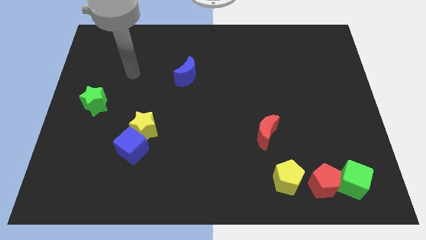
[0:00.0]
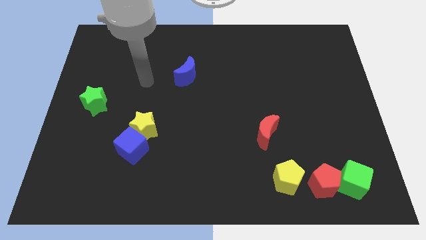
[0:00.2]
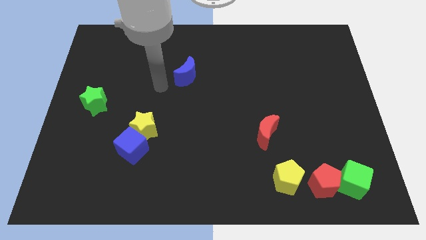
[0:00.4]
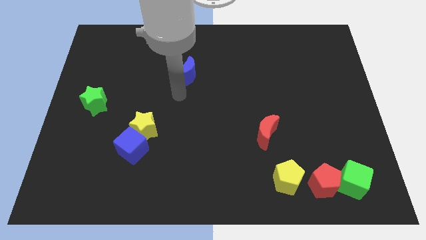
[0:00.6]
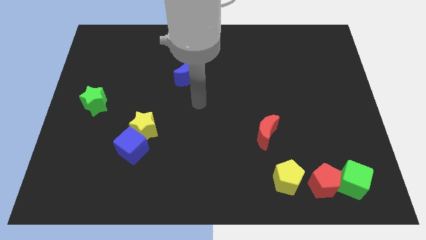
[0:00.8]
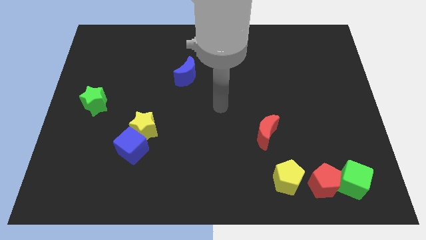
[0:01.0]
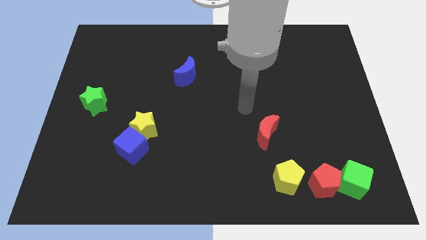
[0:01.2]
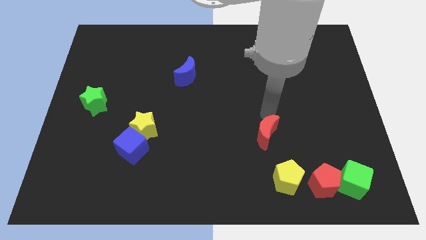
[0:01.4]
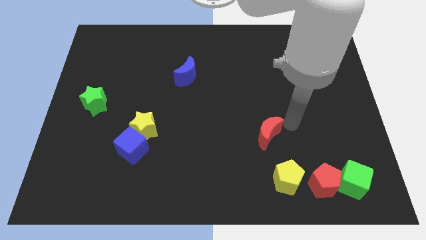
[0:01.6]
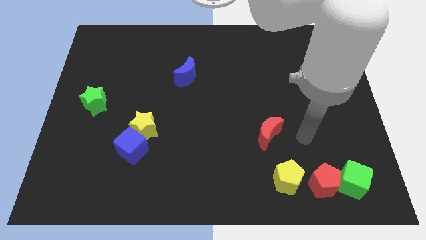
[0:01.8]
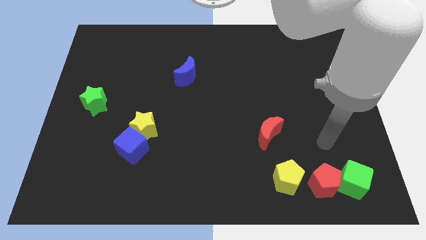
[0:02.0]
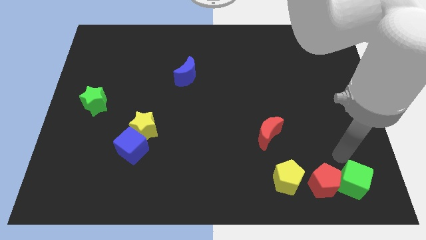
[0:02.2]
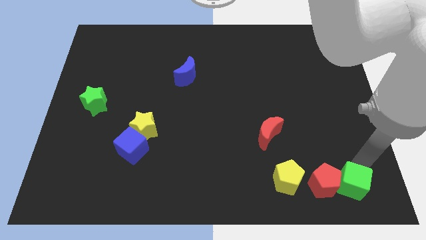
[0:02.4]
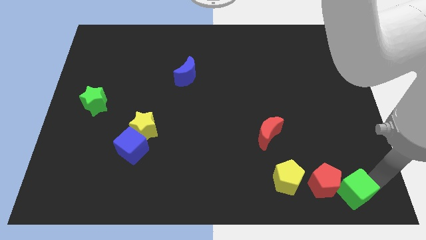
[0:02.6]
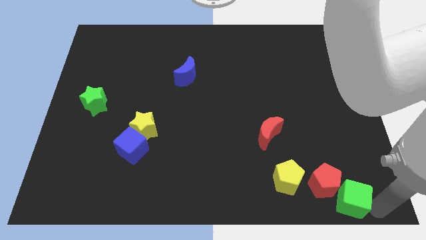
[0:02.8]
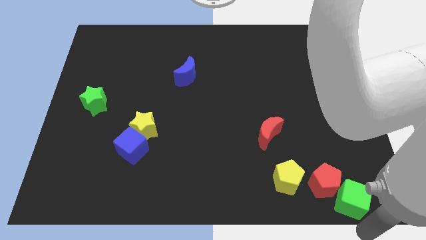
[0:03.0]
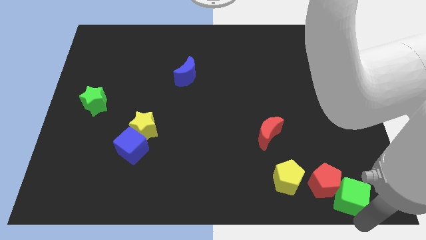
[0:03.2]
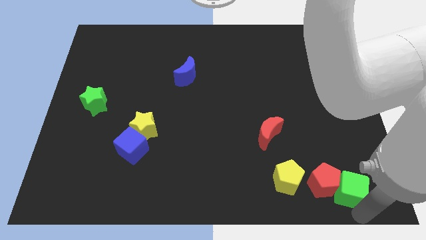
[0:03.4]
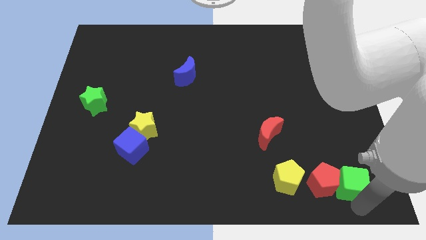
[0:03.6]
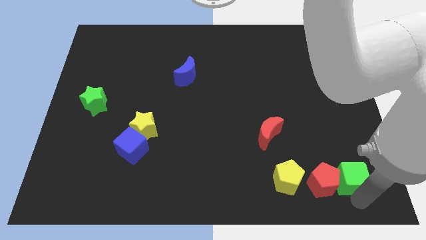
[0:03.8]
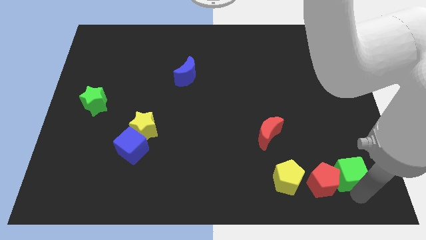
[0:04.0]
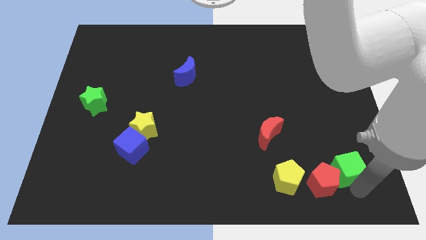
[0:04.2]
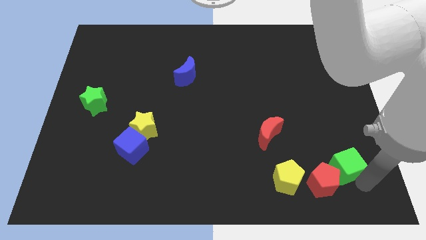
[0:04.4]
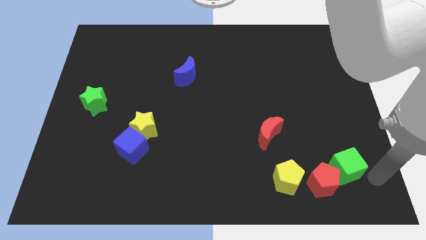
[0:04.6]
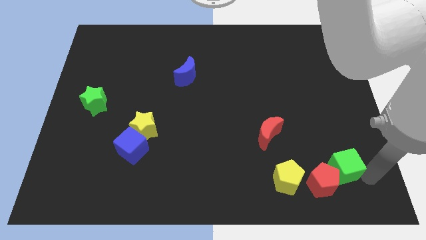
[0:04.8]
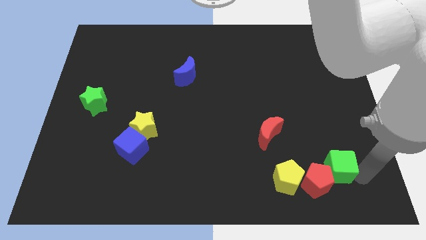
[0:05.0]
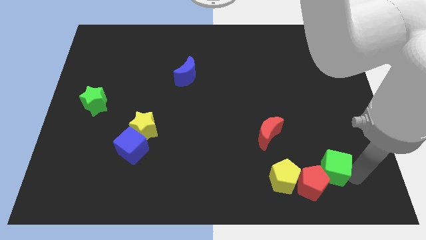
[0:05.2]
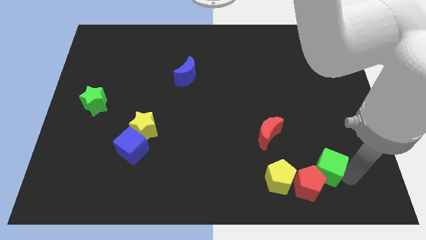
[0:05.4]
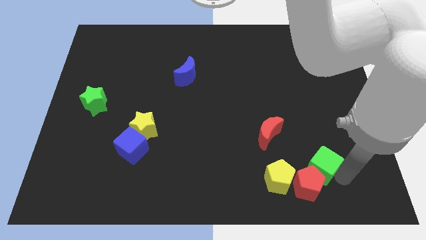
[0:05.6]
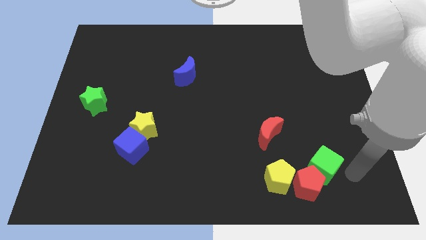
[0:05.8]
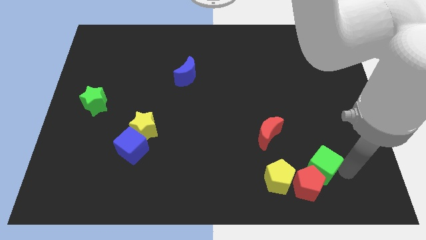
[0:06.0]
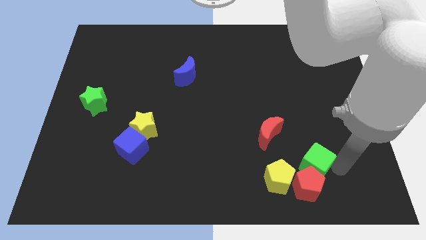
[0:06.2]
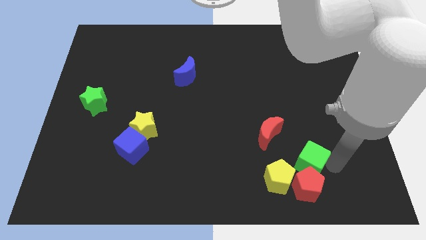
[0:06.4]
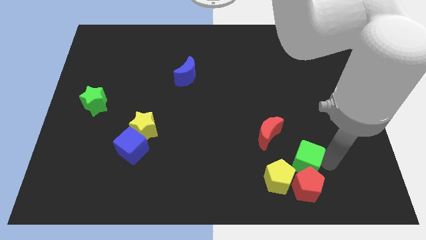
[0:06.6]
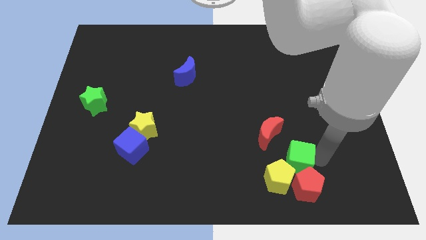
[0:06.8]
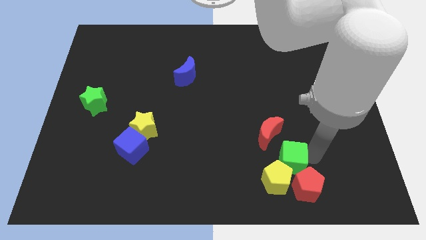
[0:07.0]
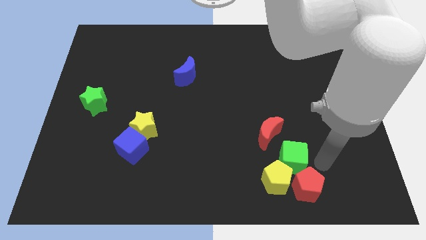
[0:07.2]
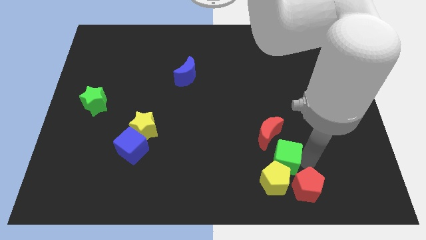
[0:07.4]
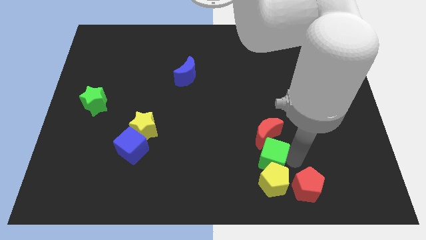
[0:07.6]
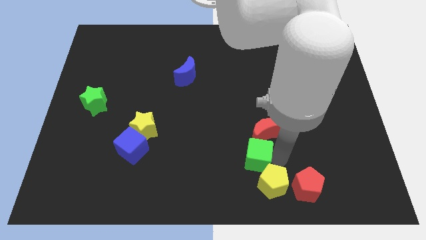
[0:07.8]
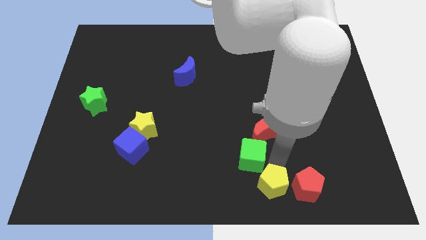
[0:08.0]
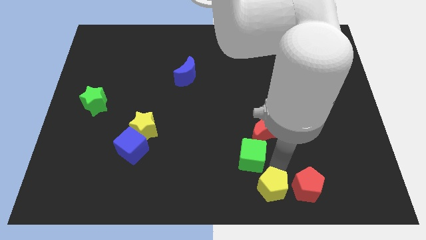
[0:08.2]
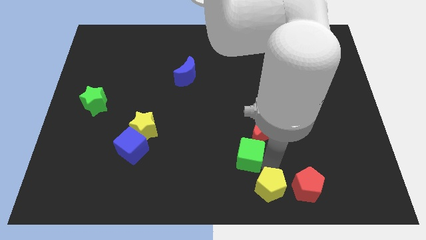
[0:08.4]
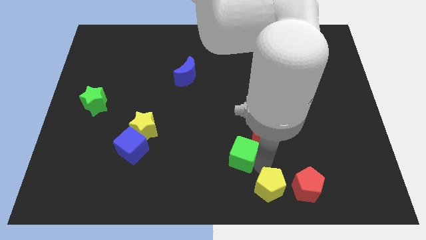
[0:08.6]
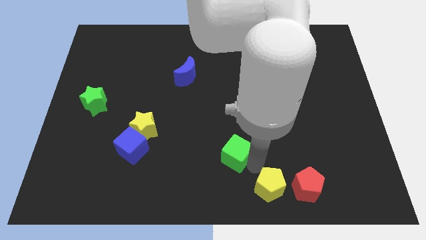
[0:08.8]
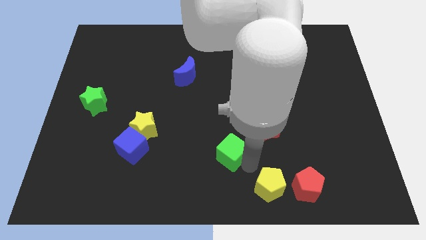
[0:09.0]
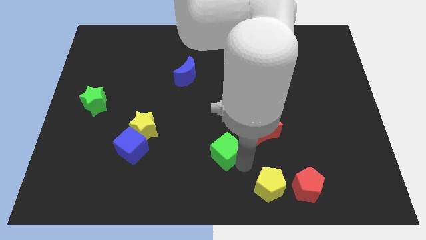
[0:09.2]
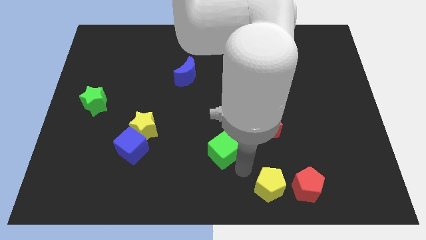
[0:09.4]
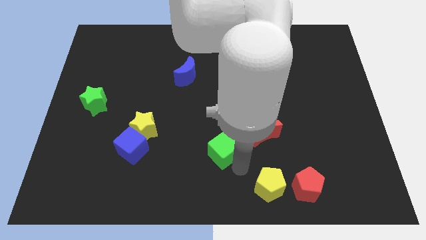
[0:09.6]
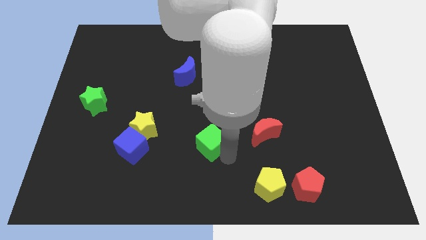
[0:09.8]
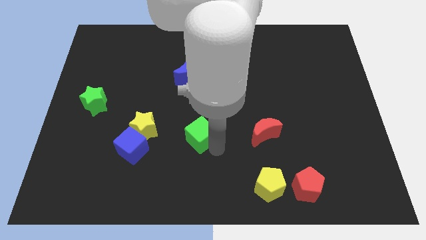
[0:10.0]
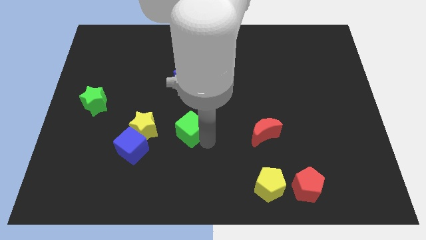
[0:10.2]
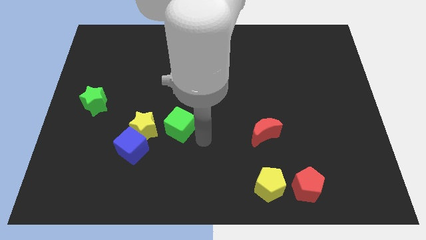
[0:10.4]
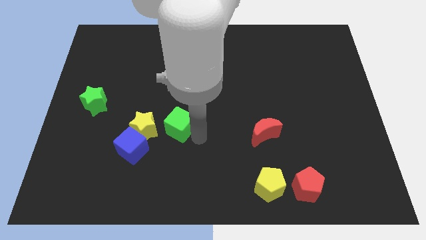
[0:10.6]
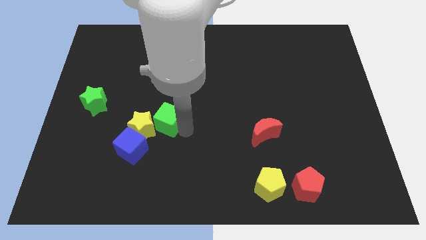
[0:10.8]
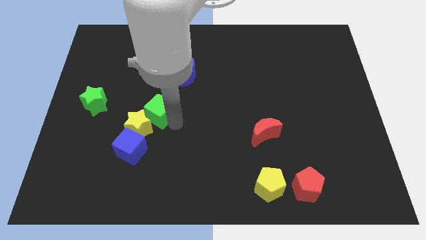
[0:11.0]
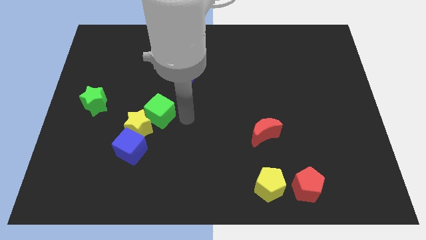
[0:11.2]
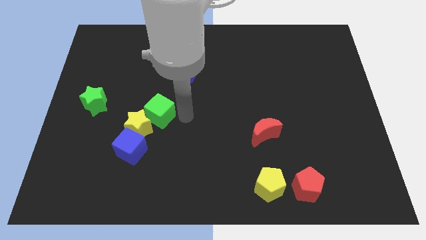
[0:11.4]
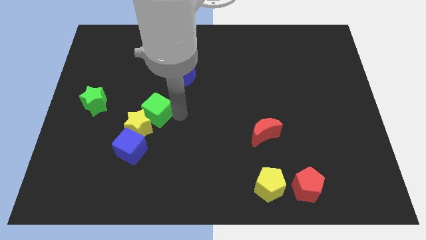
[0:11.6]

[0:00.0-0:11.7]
push the green cube to the top of the blue cube

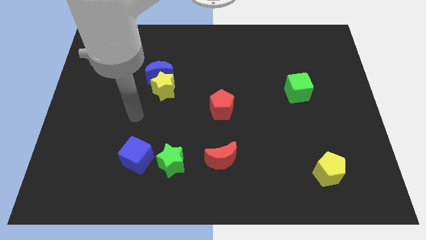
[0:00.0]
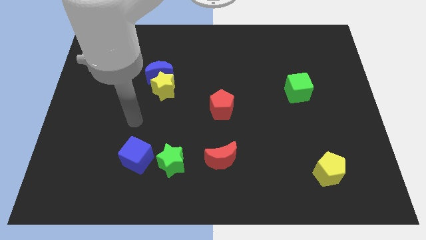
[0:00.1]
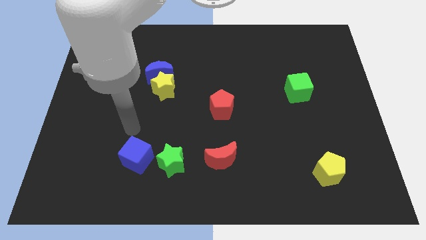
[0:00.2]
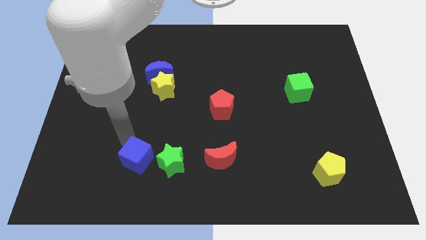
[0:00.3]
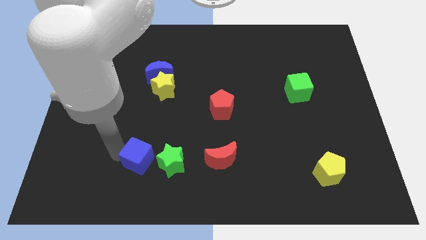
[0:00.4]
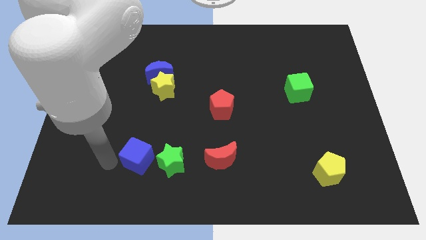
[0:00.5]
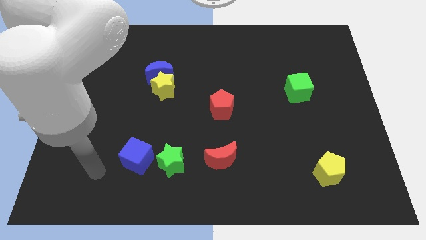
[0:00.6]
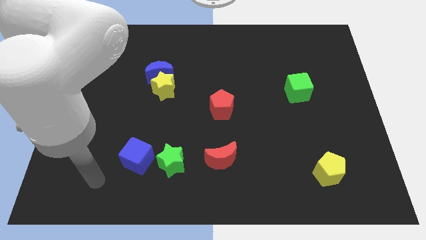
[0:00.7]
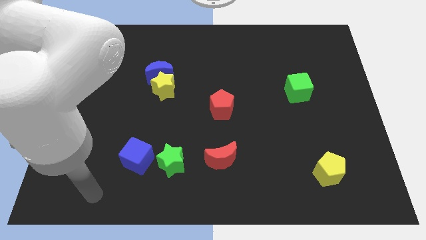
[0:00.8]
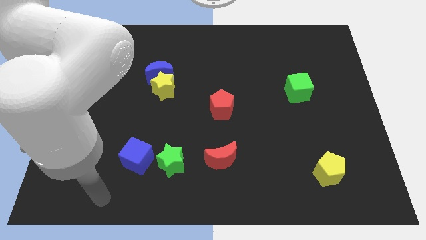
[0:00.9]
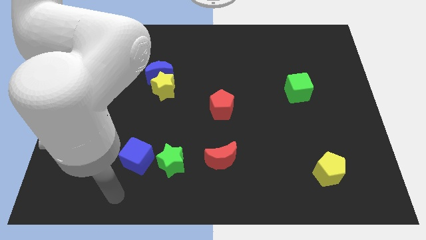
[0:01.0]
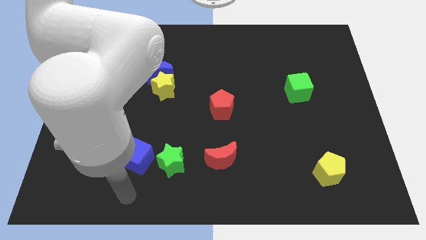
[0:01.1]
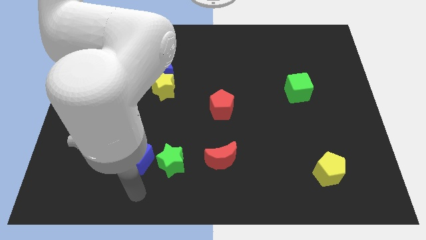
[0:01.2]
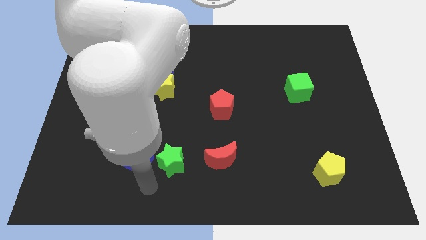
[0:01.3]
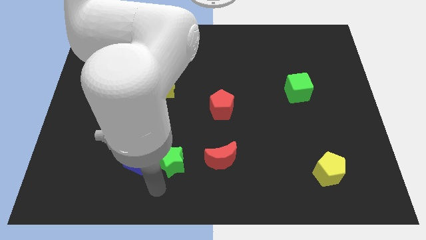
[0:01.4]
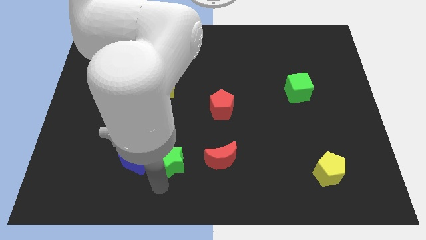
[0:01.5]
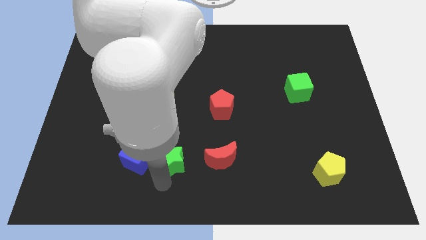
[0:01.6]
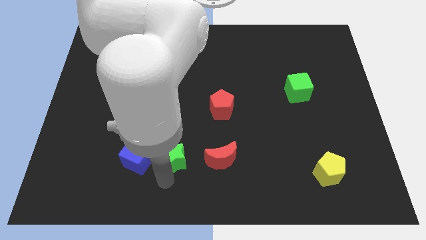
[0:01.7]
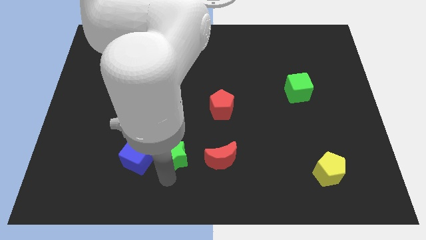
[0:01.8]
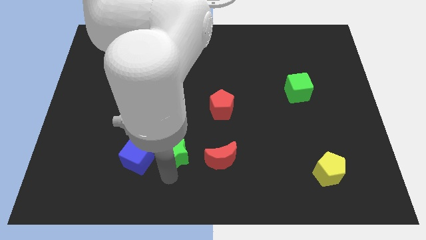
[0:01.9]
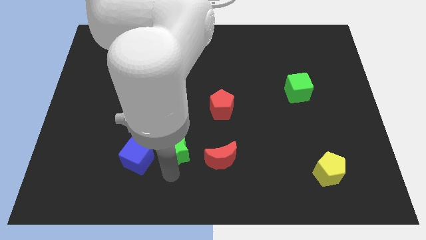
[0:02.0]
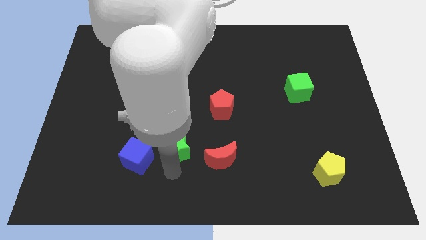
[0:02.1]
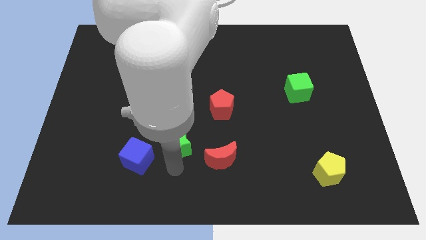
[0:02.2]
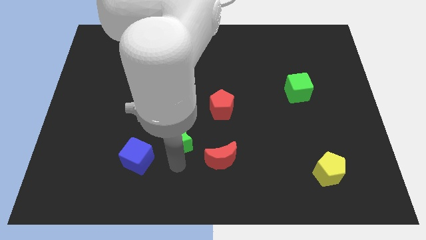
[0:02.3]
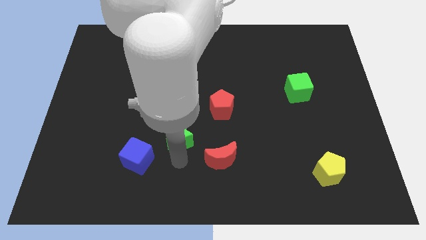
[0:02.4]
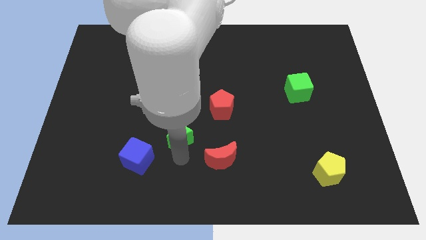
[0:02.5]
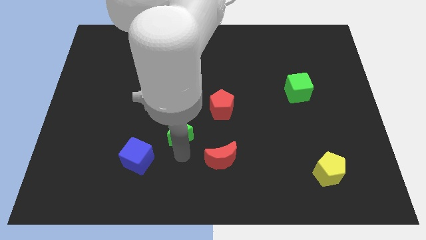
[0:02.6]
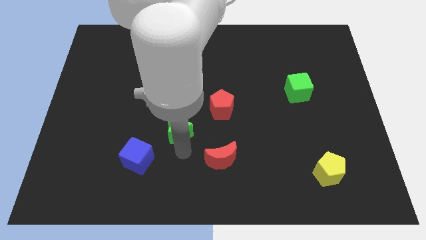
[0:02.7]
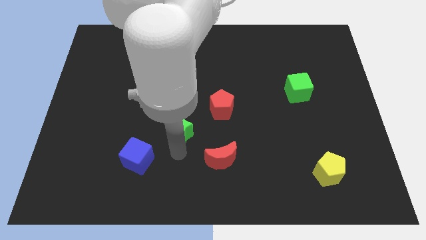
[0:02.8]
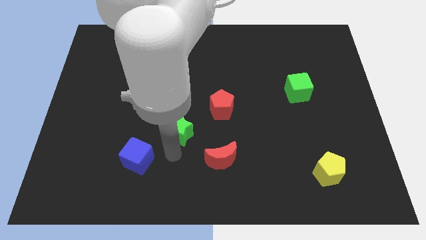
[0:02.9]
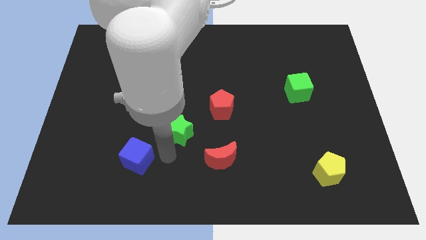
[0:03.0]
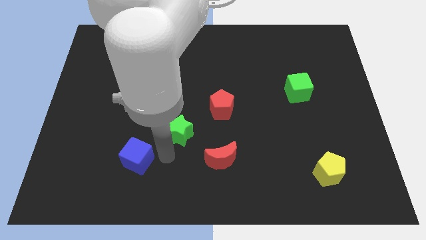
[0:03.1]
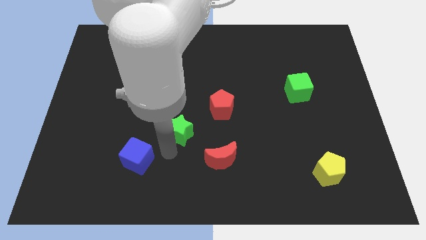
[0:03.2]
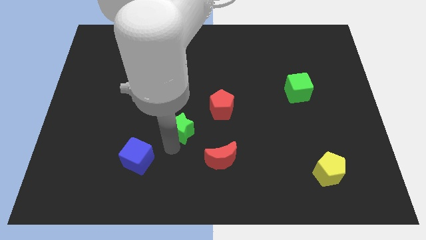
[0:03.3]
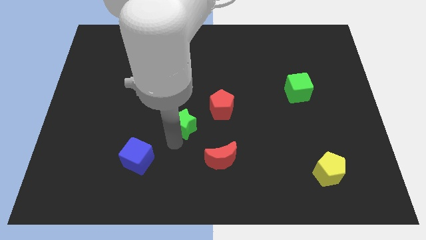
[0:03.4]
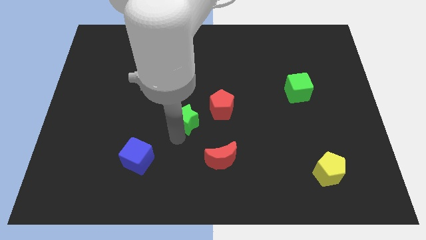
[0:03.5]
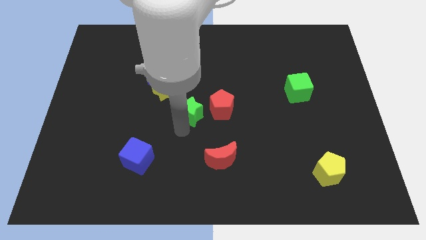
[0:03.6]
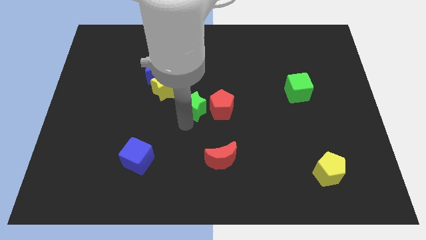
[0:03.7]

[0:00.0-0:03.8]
put the green star to the top left of the red pentagon
